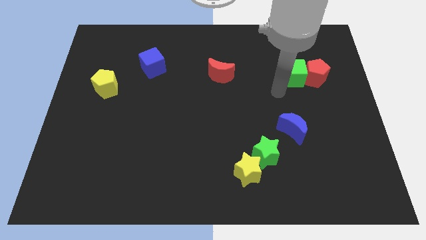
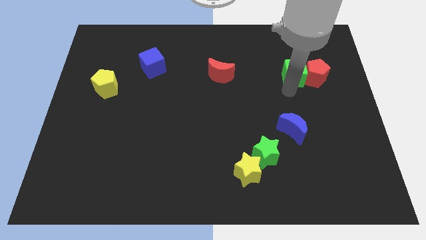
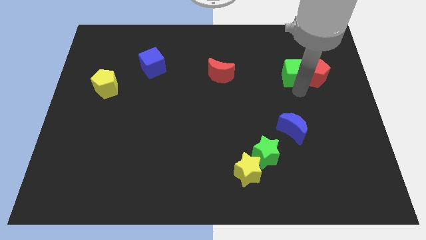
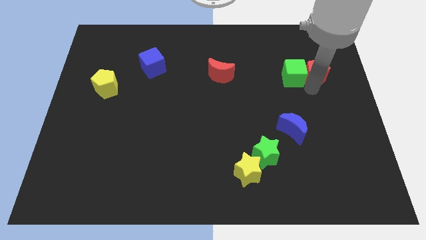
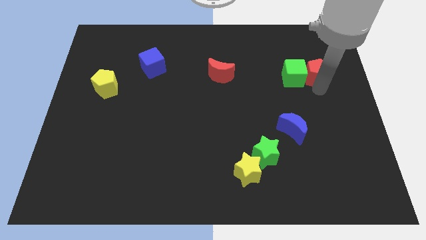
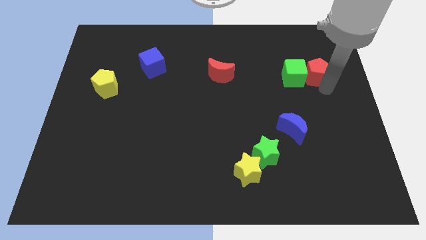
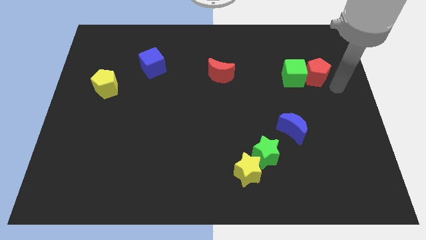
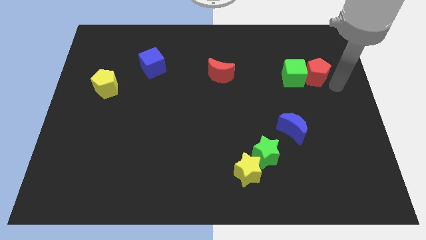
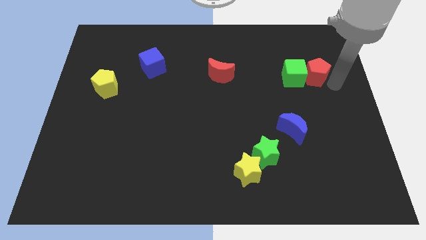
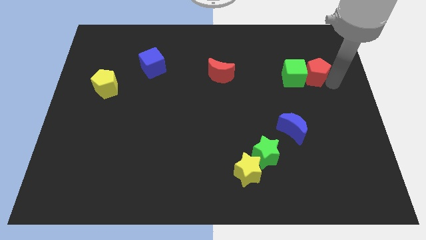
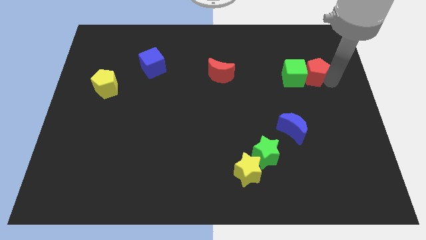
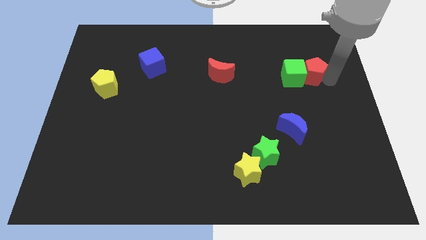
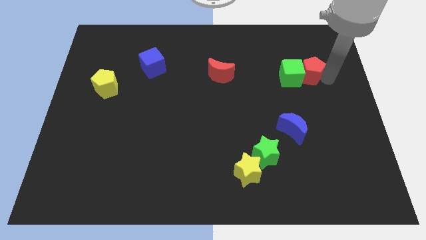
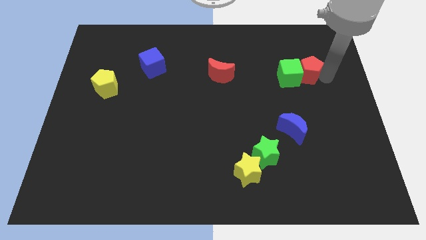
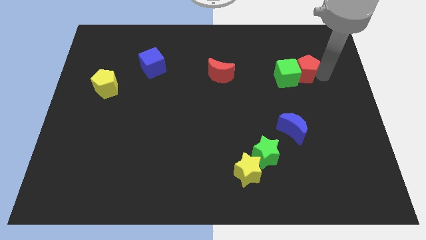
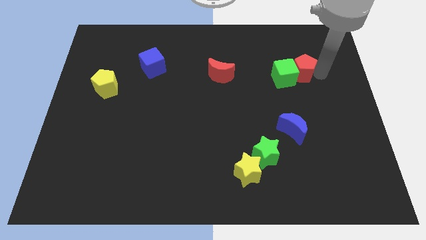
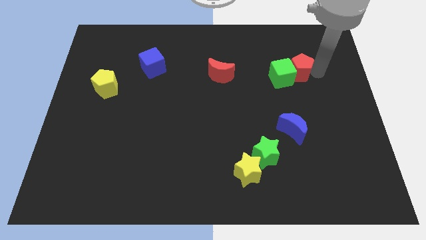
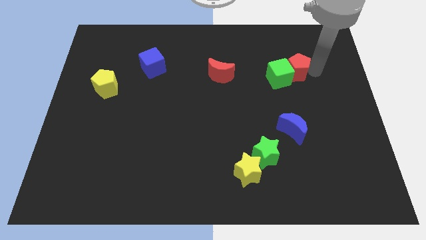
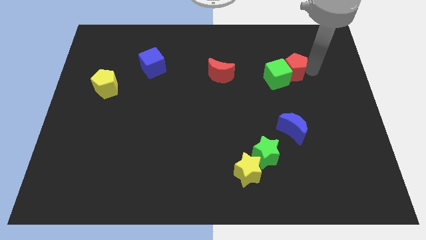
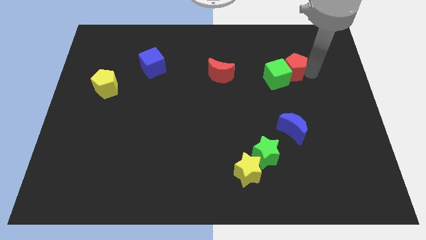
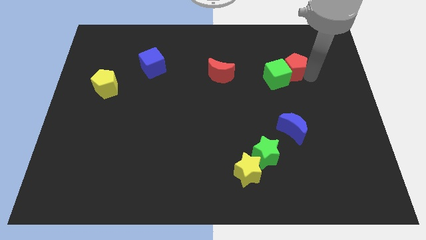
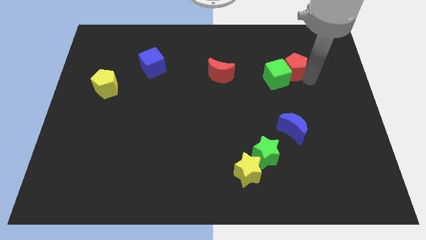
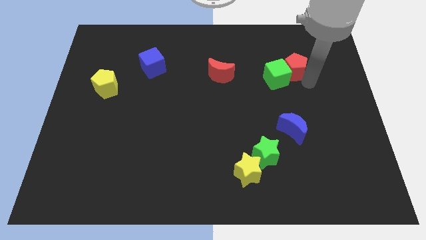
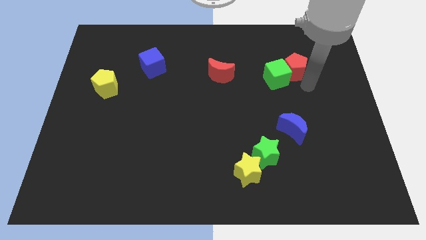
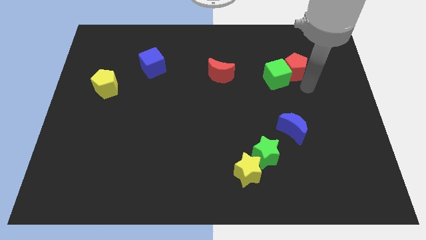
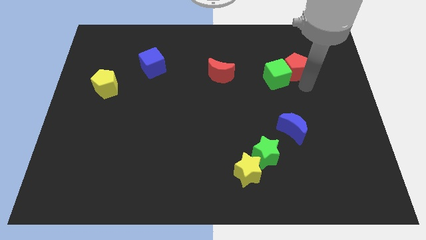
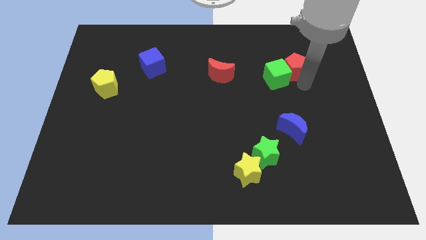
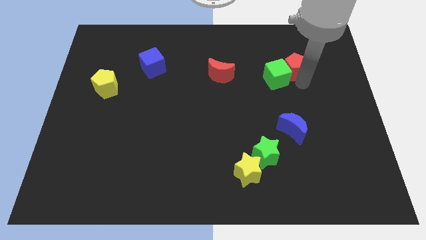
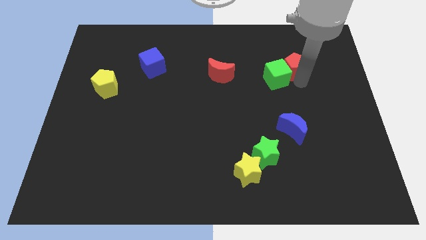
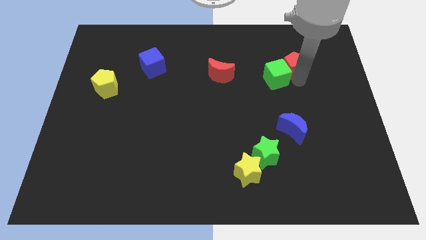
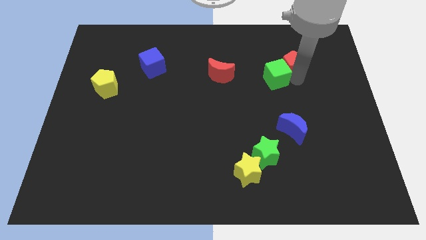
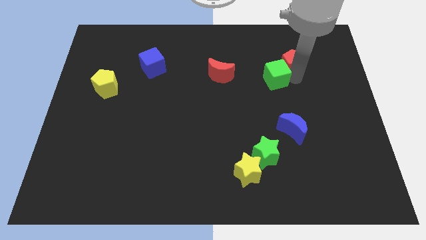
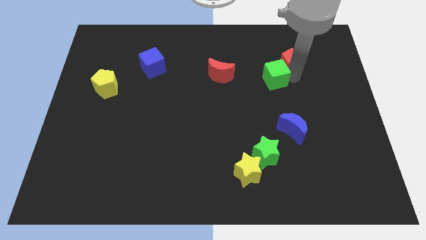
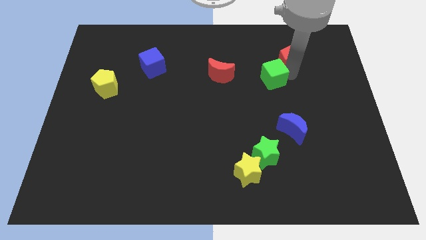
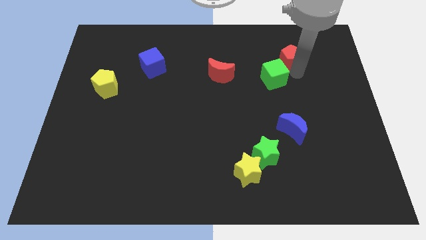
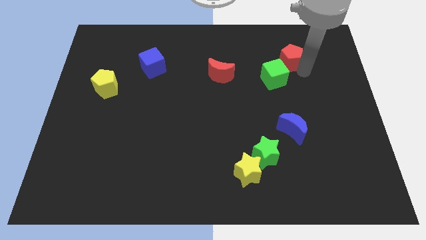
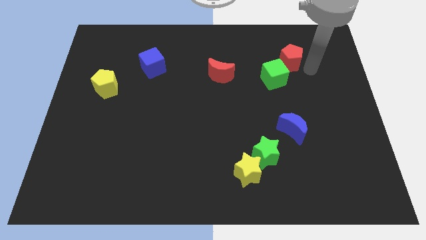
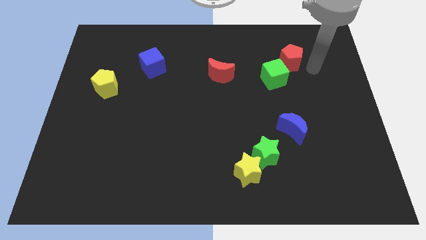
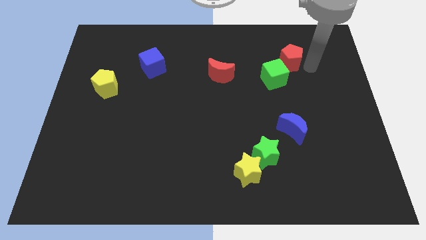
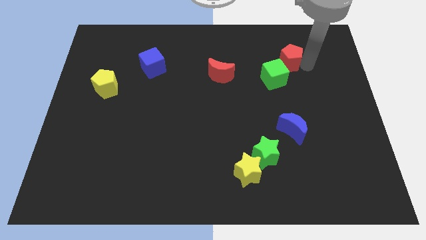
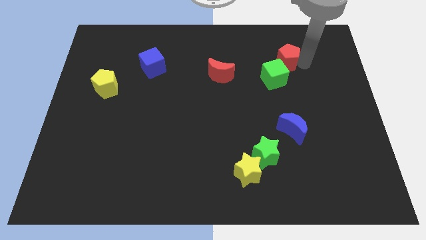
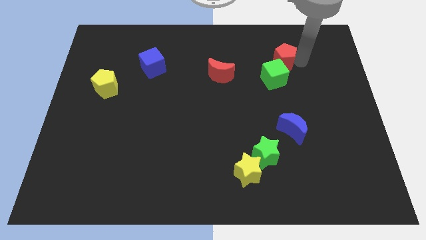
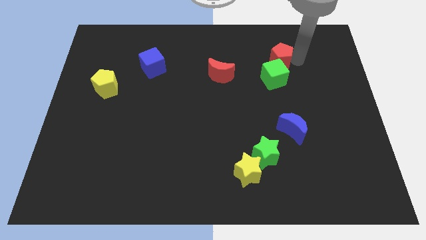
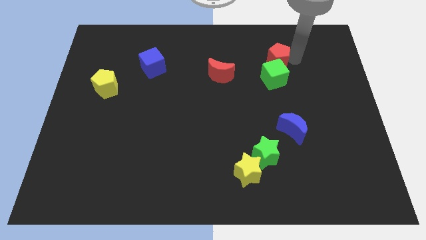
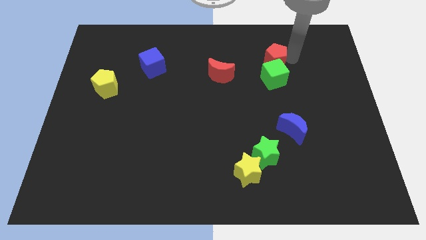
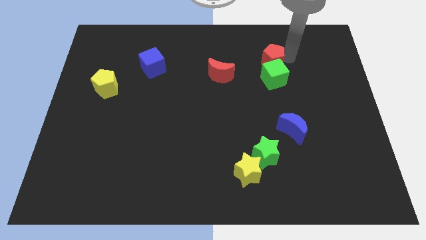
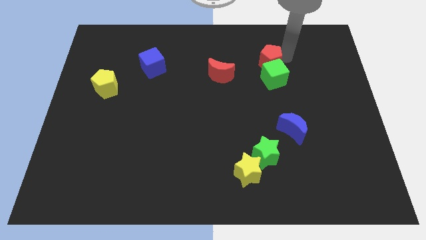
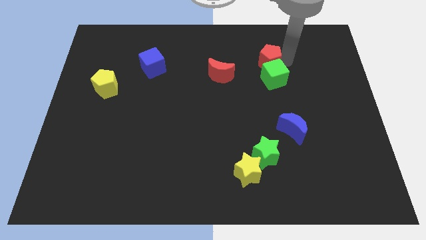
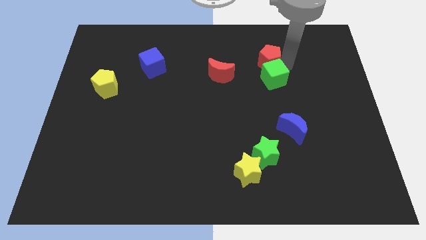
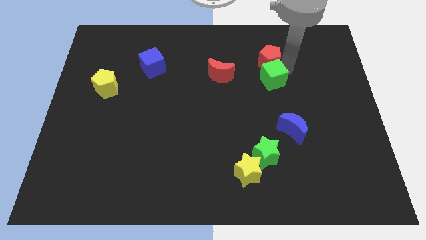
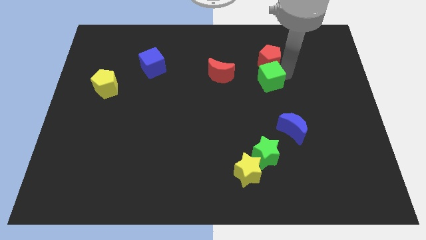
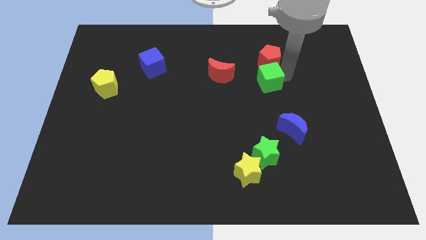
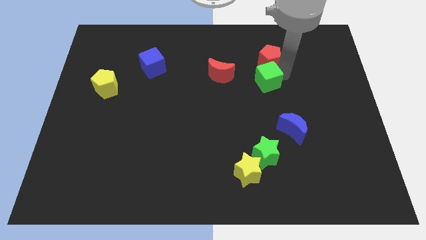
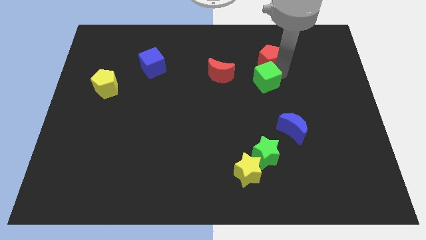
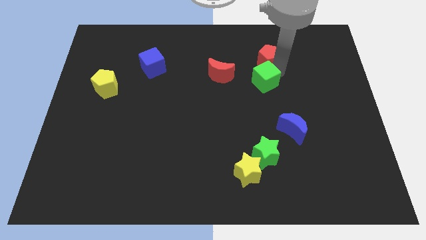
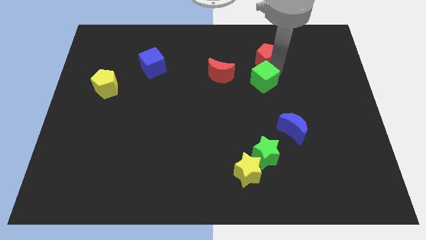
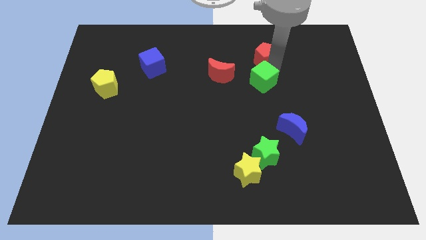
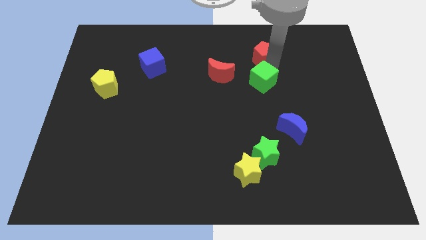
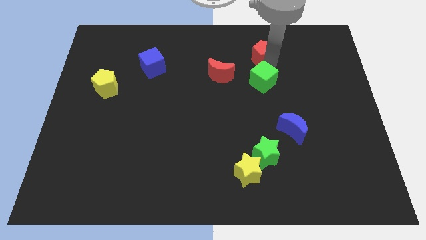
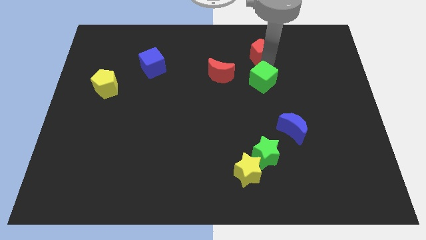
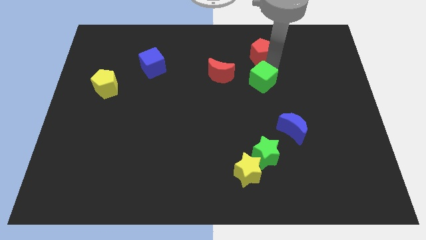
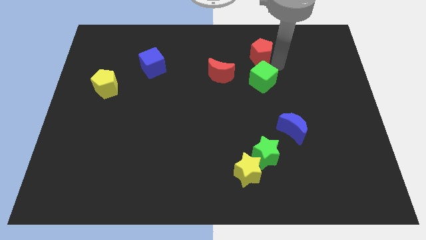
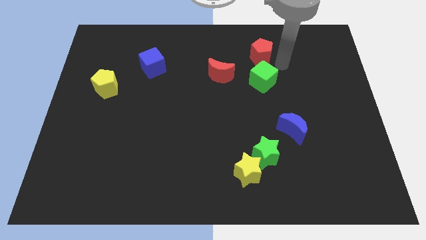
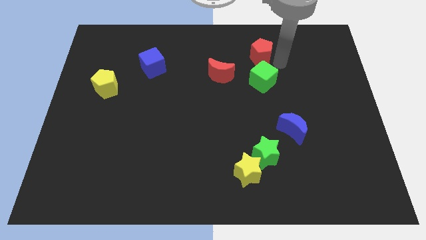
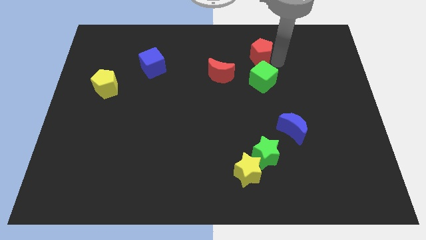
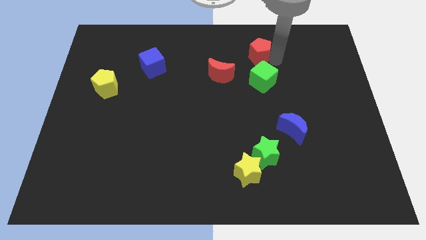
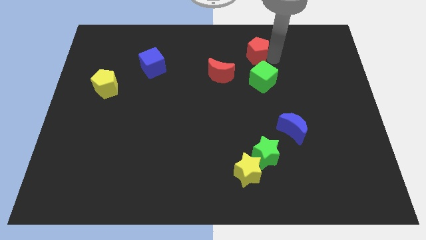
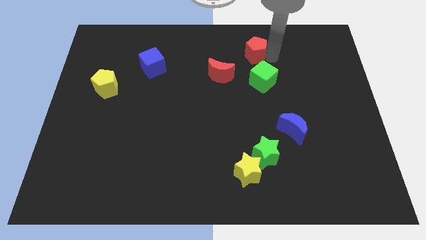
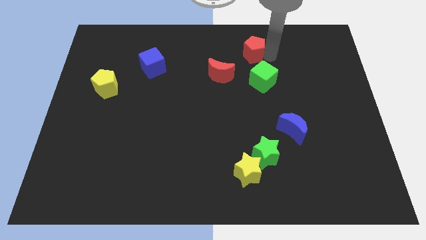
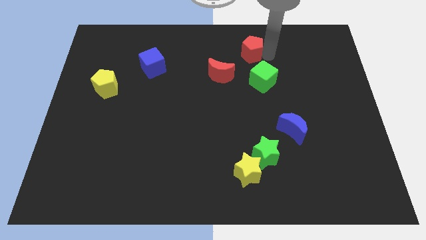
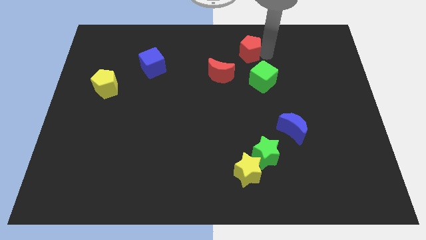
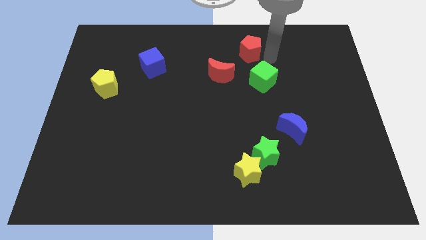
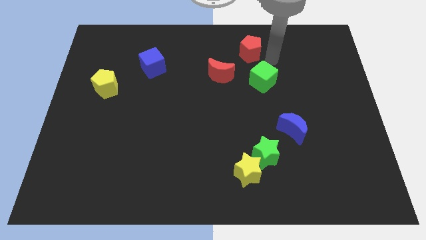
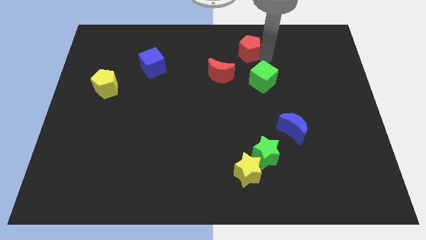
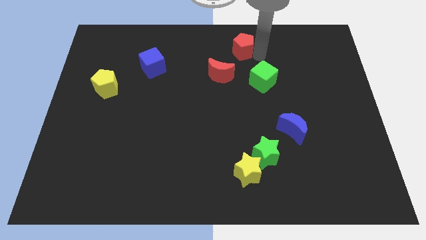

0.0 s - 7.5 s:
slide the red pentagon to the top side
